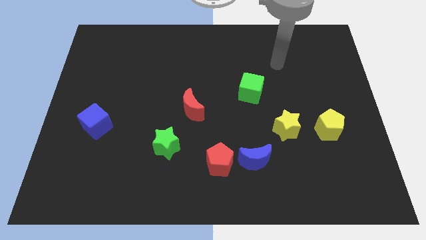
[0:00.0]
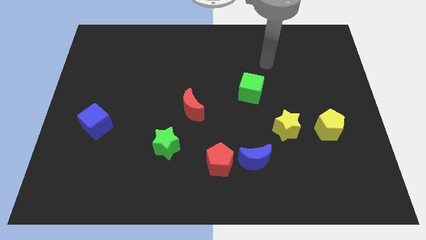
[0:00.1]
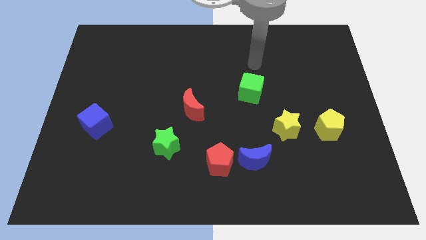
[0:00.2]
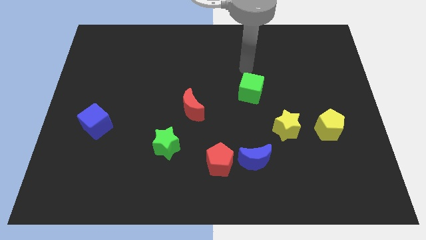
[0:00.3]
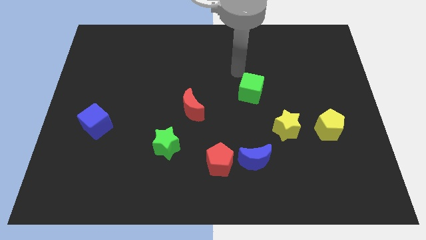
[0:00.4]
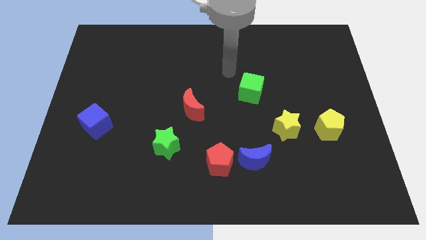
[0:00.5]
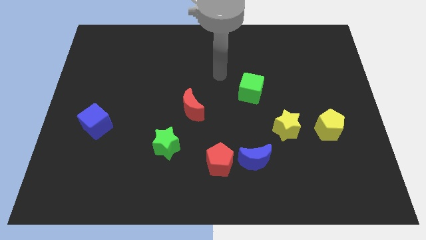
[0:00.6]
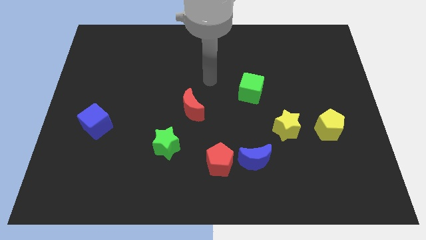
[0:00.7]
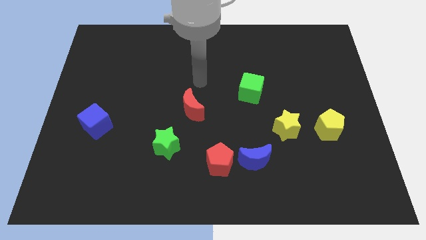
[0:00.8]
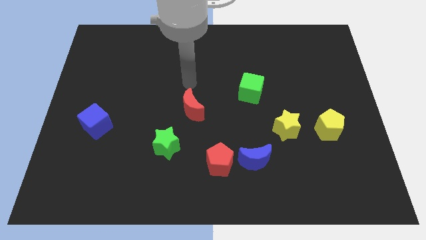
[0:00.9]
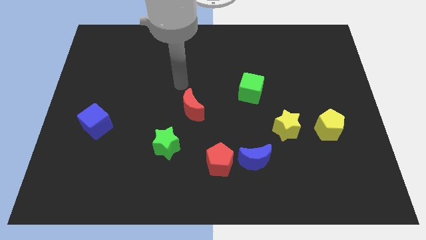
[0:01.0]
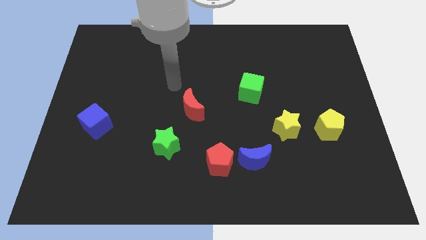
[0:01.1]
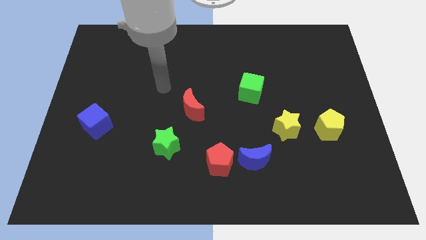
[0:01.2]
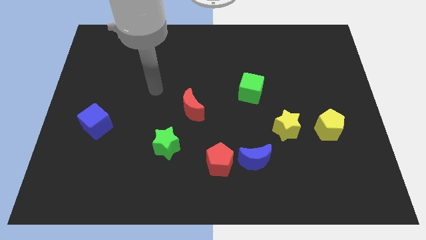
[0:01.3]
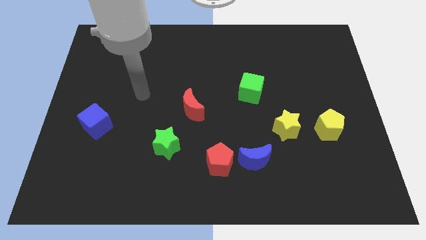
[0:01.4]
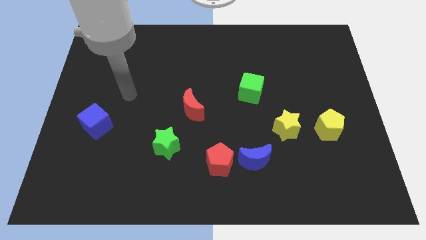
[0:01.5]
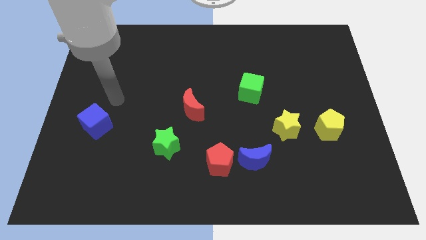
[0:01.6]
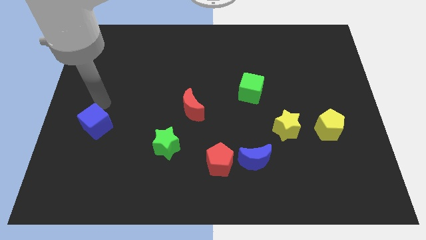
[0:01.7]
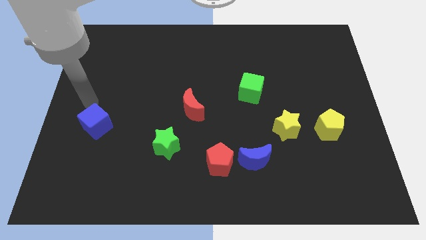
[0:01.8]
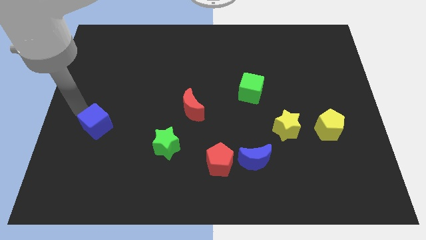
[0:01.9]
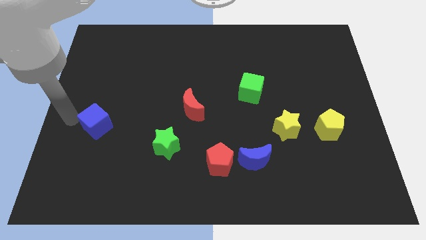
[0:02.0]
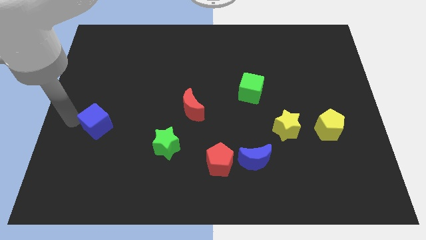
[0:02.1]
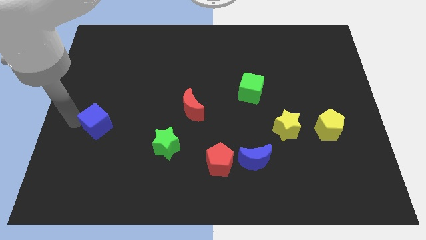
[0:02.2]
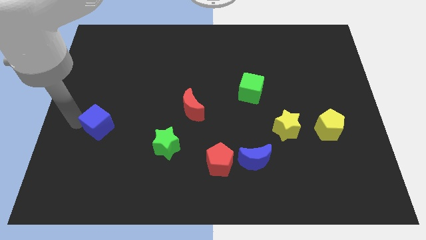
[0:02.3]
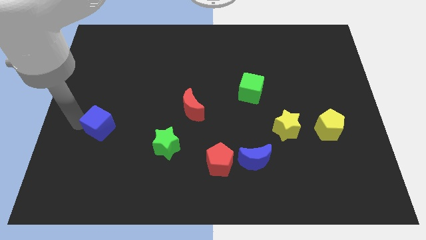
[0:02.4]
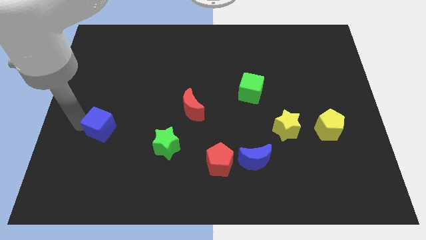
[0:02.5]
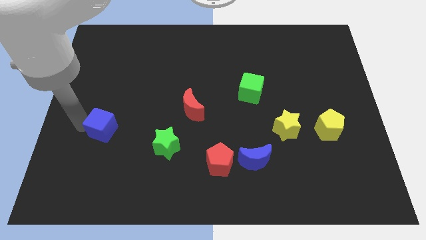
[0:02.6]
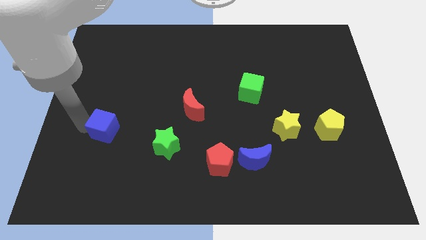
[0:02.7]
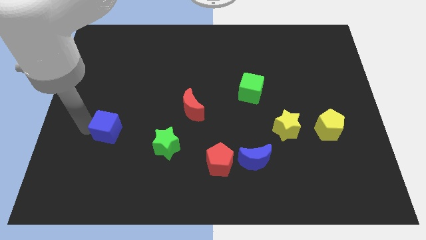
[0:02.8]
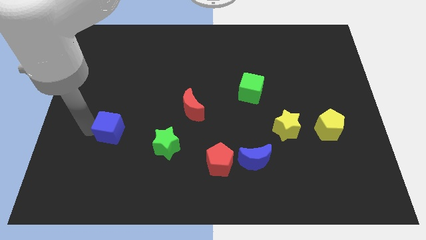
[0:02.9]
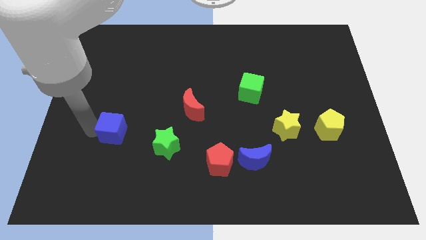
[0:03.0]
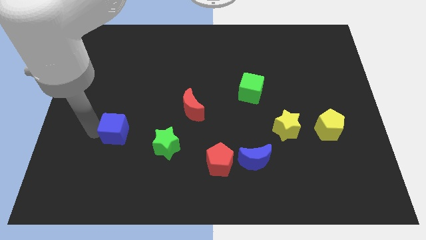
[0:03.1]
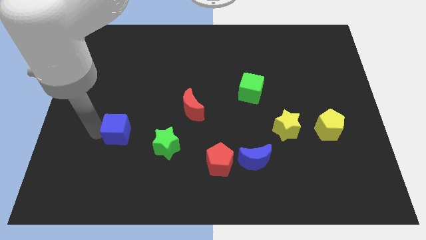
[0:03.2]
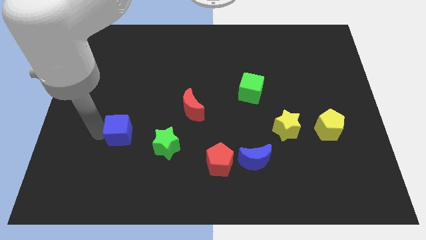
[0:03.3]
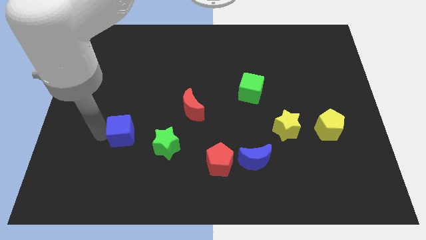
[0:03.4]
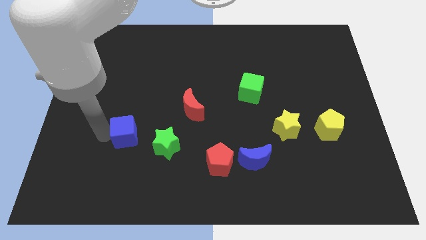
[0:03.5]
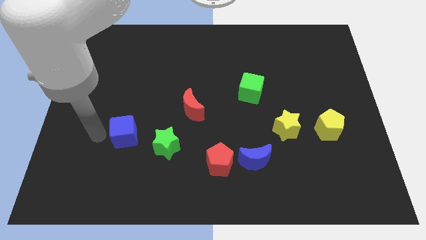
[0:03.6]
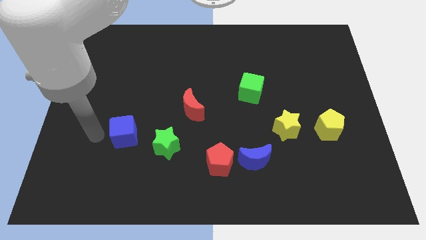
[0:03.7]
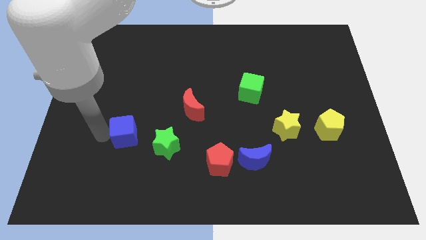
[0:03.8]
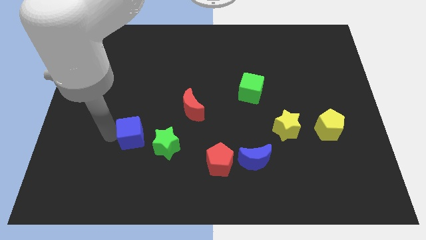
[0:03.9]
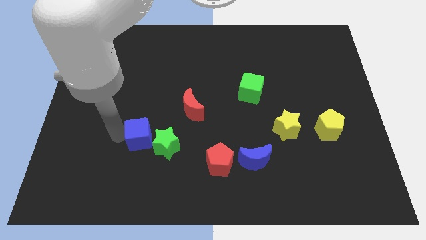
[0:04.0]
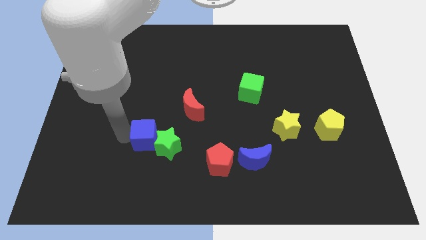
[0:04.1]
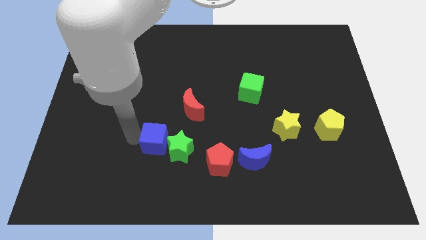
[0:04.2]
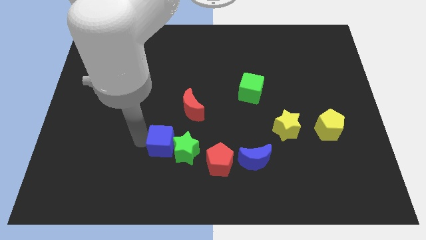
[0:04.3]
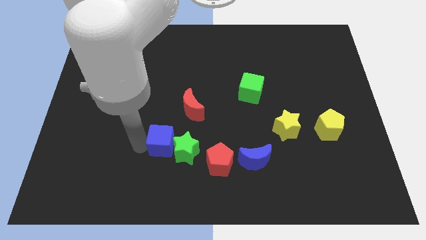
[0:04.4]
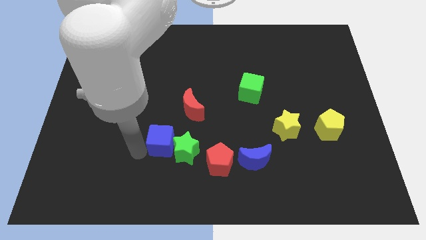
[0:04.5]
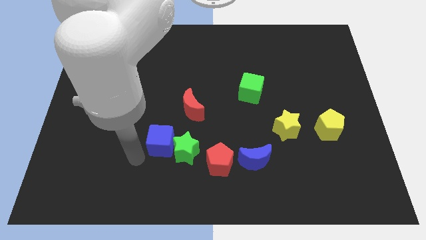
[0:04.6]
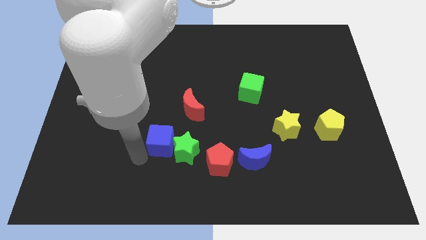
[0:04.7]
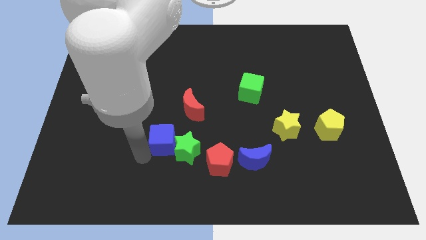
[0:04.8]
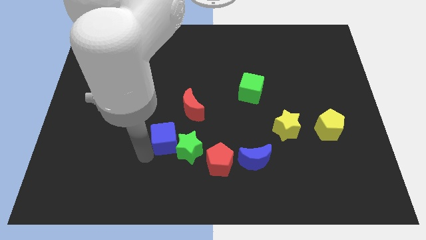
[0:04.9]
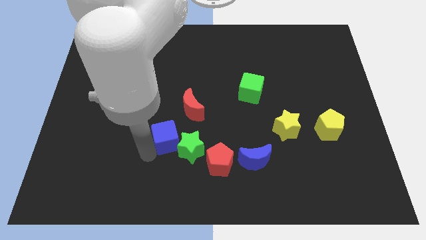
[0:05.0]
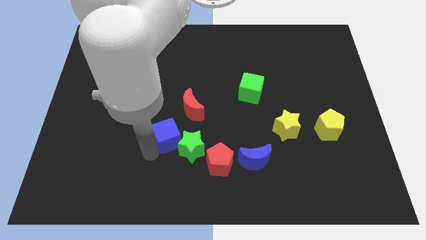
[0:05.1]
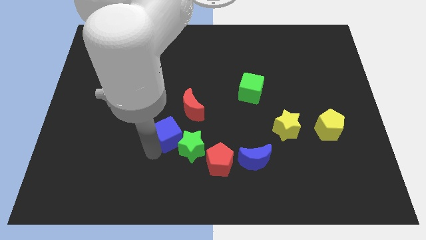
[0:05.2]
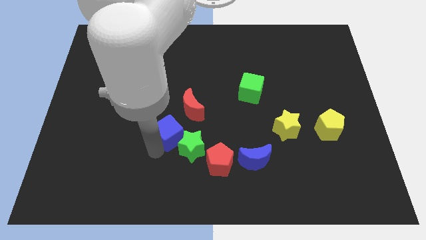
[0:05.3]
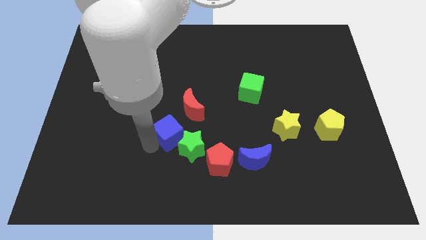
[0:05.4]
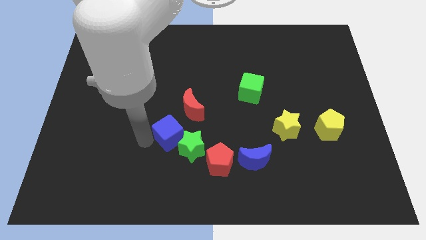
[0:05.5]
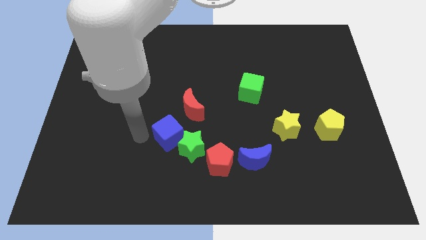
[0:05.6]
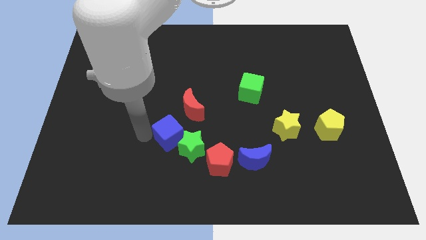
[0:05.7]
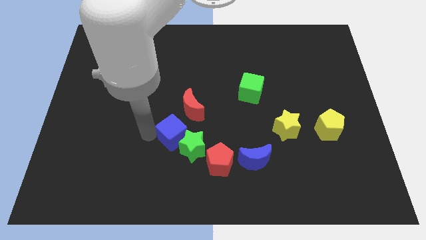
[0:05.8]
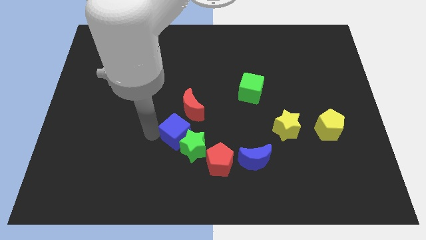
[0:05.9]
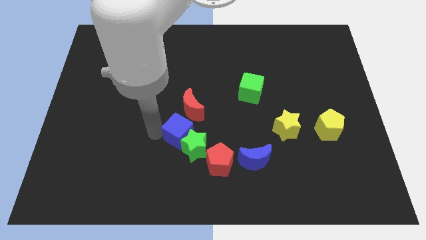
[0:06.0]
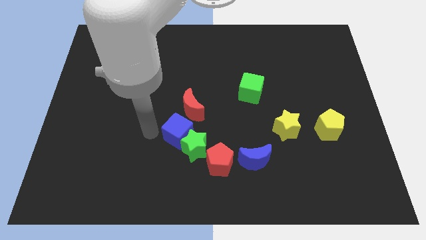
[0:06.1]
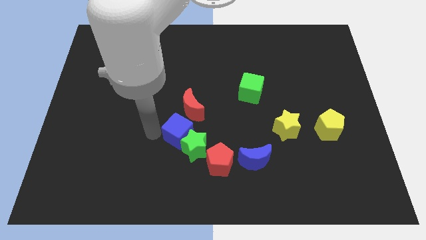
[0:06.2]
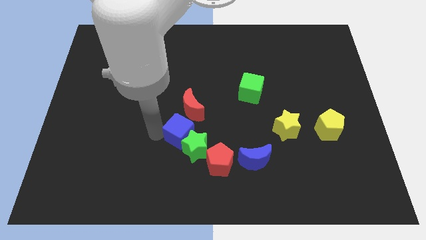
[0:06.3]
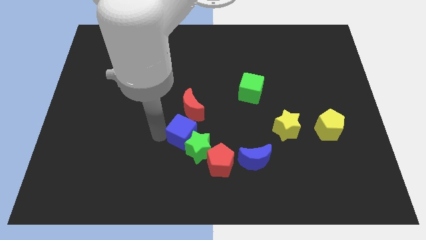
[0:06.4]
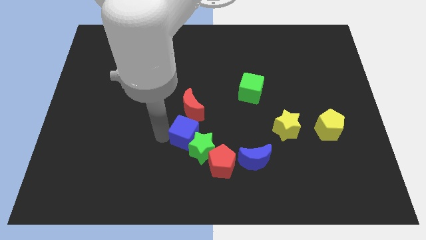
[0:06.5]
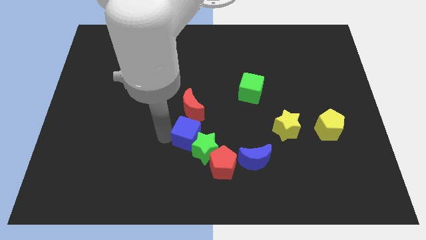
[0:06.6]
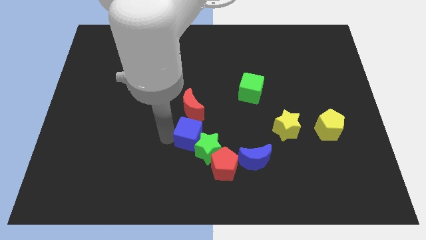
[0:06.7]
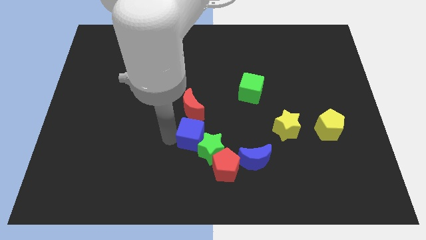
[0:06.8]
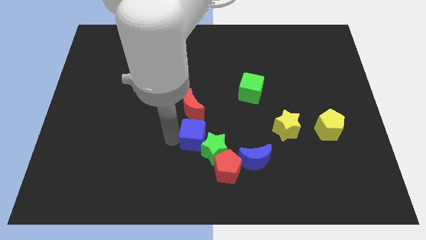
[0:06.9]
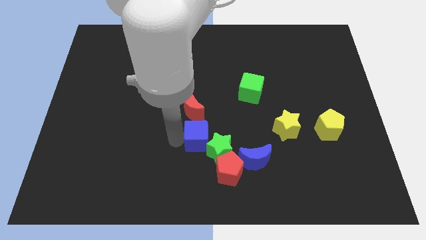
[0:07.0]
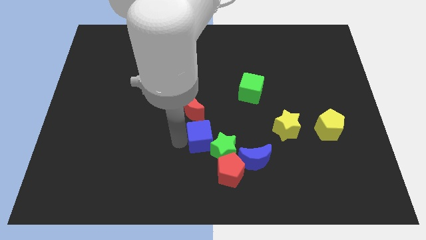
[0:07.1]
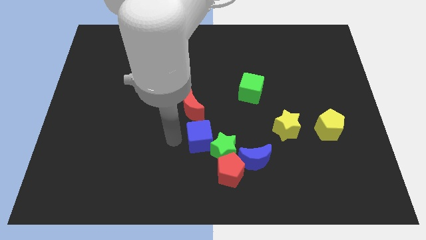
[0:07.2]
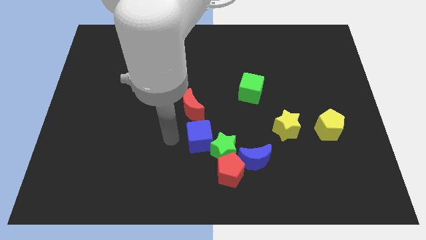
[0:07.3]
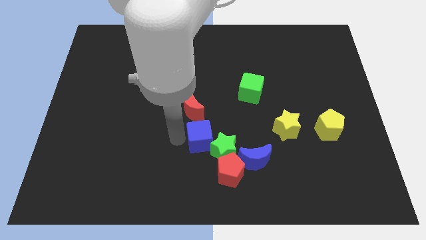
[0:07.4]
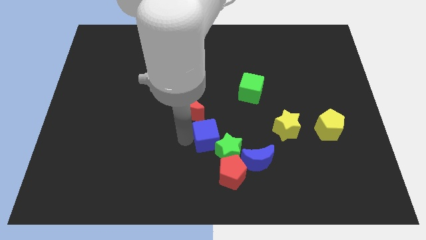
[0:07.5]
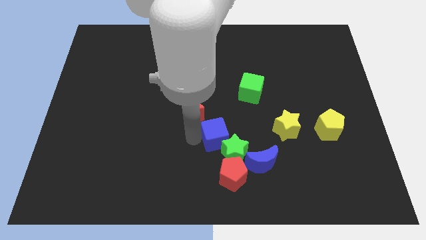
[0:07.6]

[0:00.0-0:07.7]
move the blue cube to the top left of the blue moon
